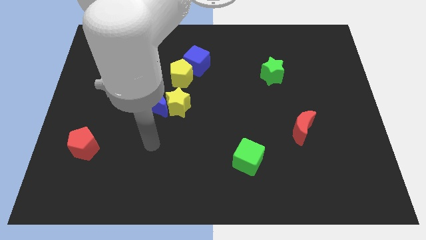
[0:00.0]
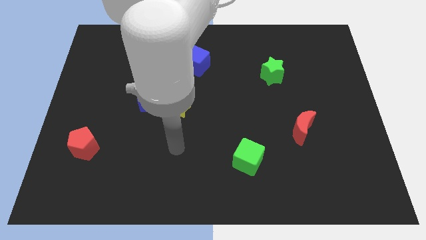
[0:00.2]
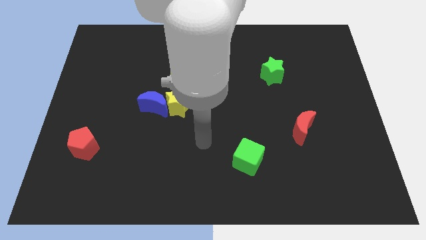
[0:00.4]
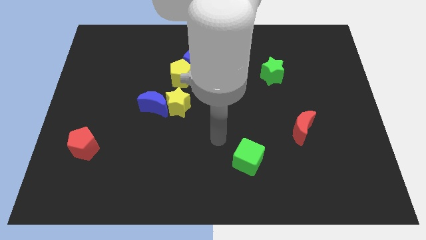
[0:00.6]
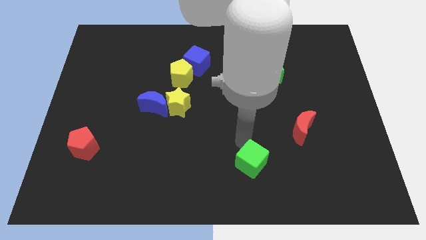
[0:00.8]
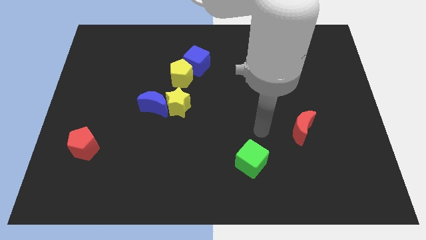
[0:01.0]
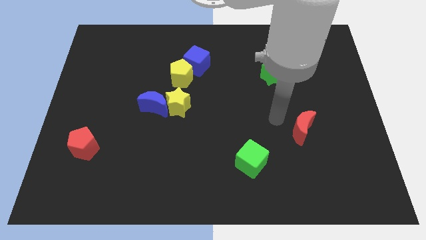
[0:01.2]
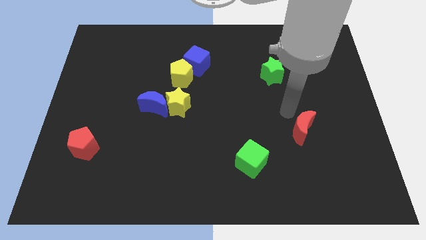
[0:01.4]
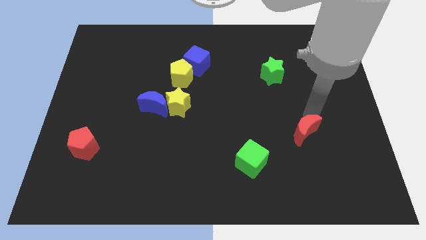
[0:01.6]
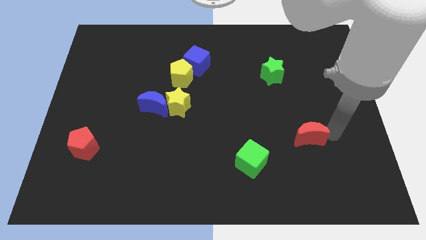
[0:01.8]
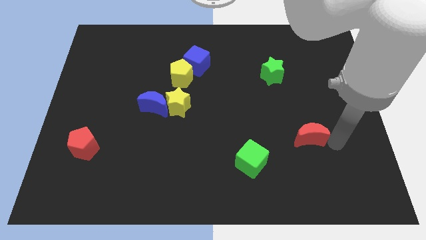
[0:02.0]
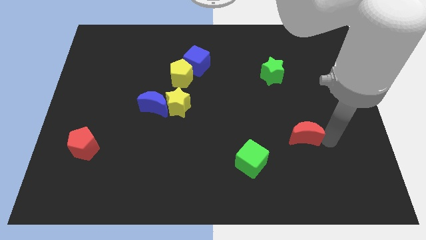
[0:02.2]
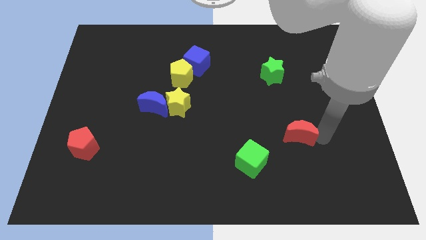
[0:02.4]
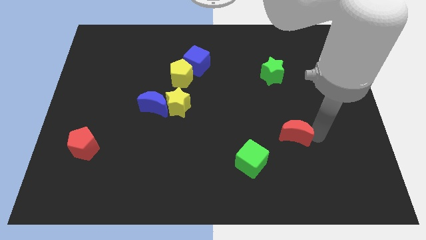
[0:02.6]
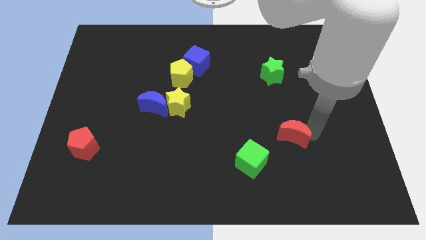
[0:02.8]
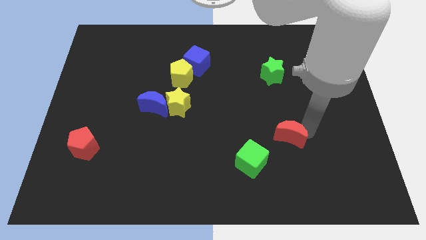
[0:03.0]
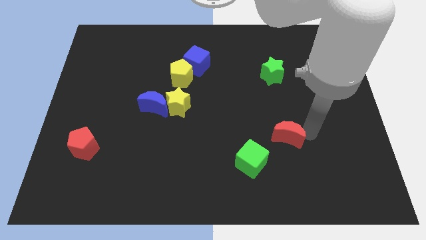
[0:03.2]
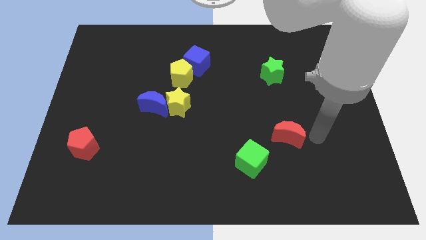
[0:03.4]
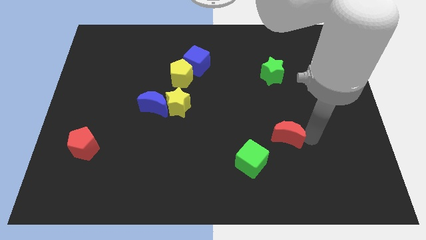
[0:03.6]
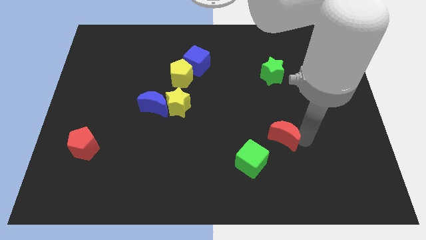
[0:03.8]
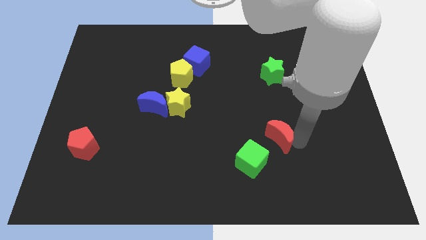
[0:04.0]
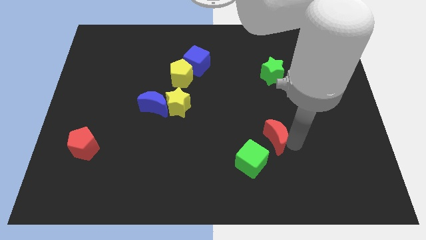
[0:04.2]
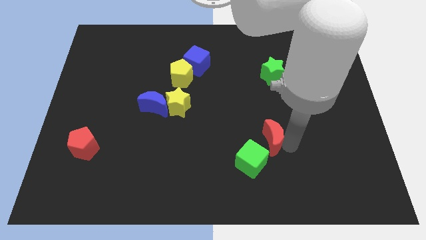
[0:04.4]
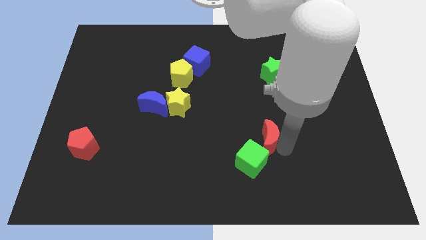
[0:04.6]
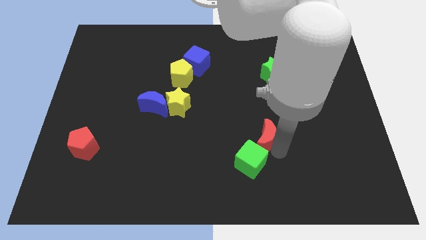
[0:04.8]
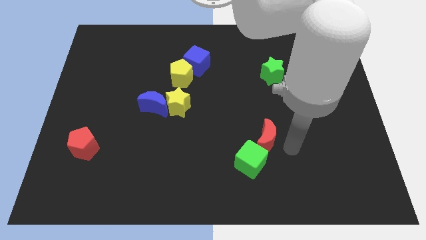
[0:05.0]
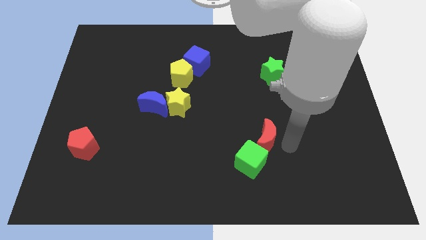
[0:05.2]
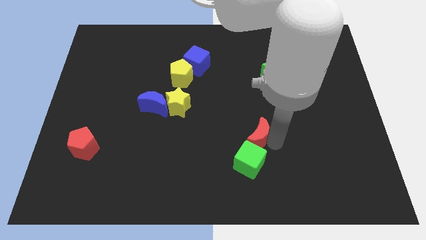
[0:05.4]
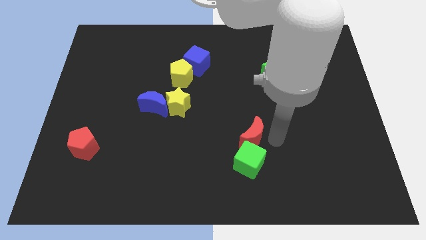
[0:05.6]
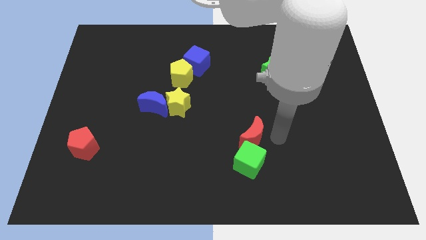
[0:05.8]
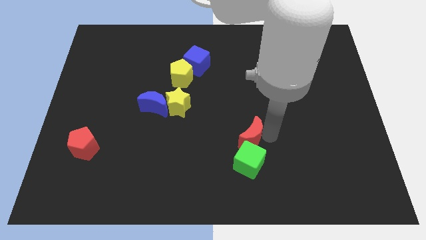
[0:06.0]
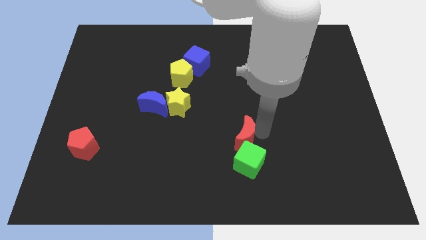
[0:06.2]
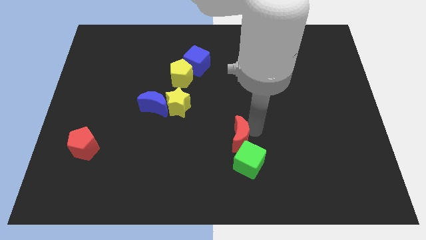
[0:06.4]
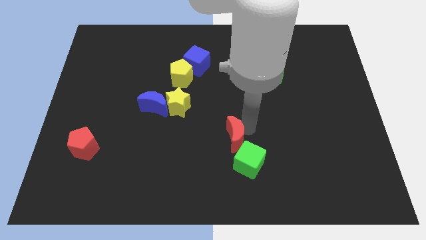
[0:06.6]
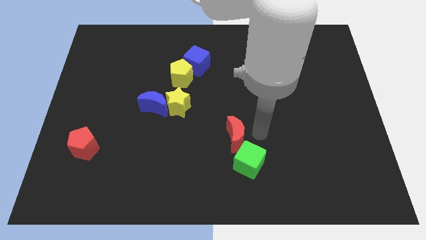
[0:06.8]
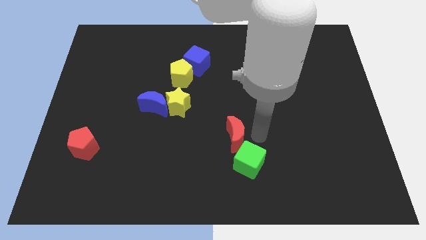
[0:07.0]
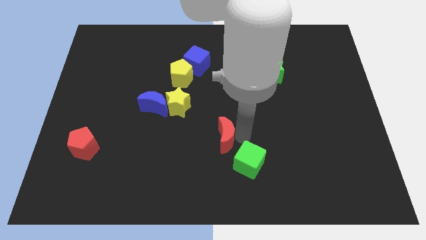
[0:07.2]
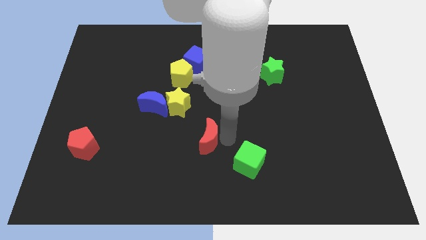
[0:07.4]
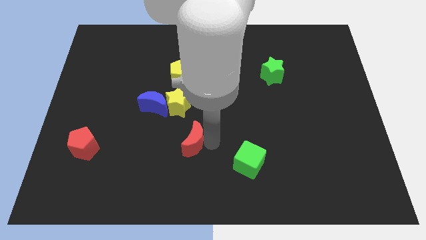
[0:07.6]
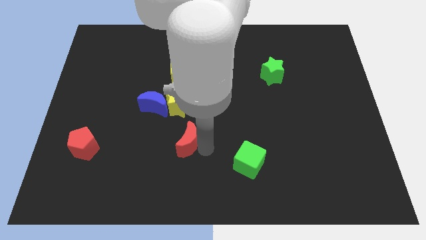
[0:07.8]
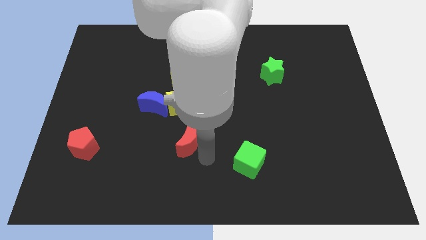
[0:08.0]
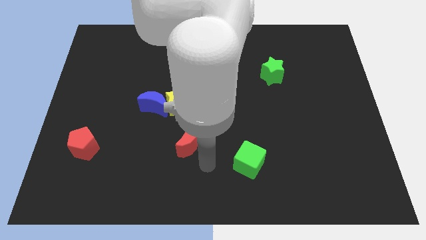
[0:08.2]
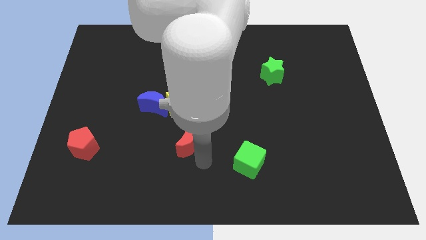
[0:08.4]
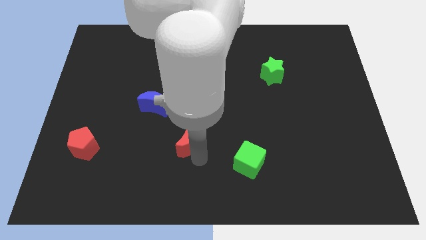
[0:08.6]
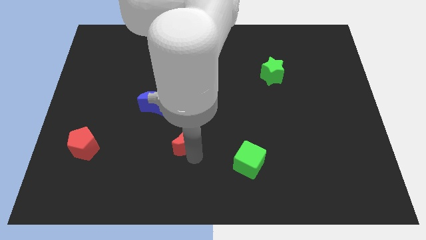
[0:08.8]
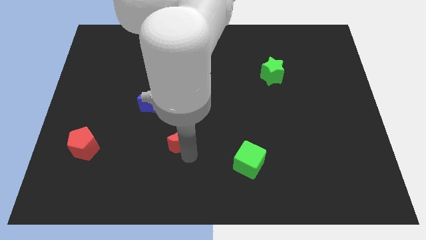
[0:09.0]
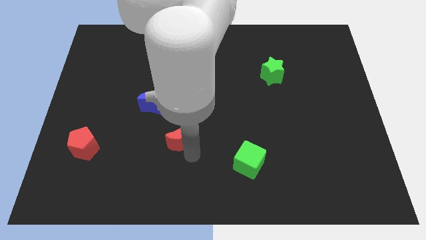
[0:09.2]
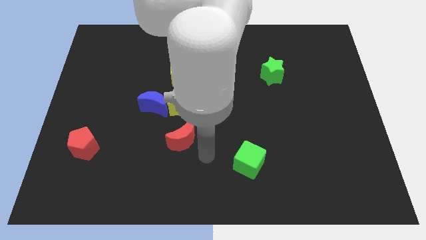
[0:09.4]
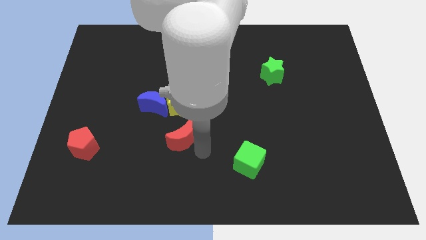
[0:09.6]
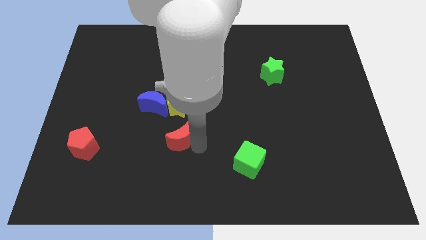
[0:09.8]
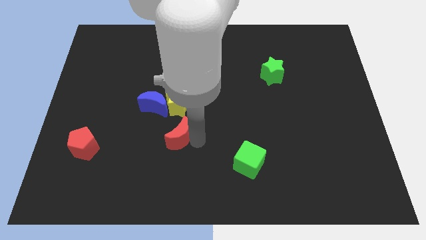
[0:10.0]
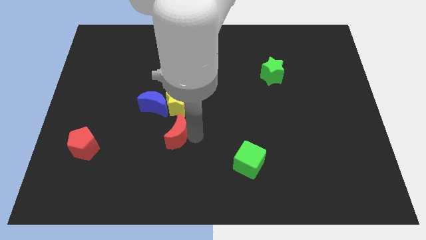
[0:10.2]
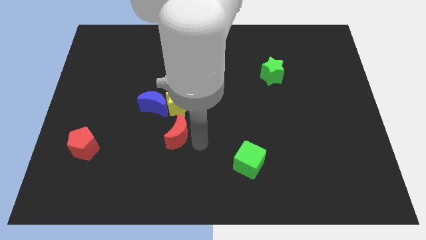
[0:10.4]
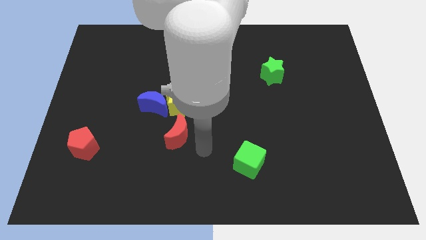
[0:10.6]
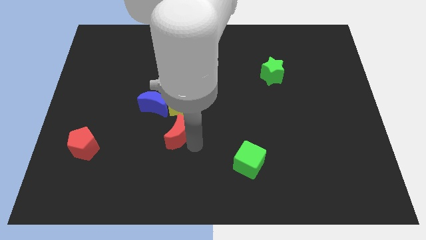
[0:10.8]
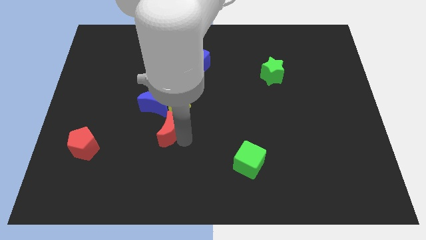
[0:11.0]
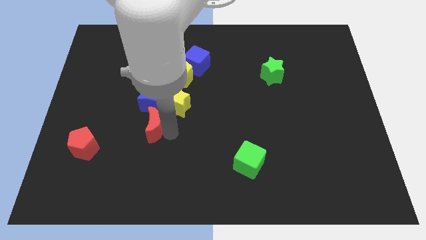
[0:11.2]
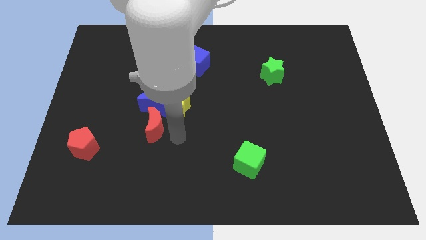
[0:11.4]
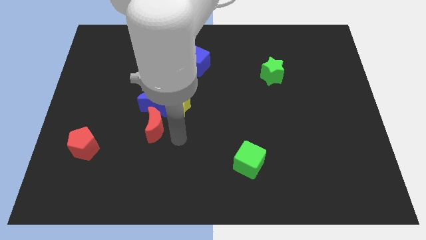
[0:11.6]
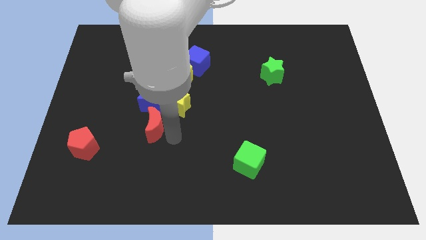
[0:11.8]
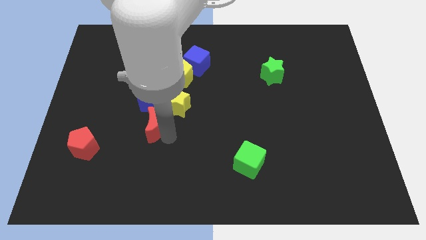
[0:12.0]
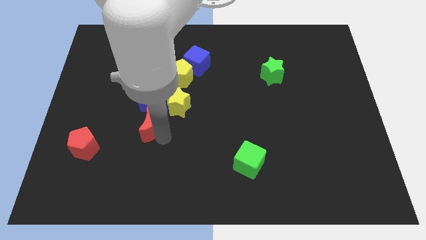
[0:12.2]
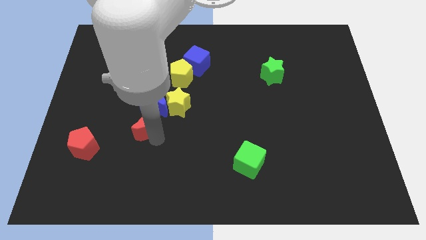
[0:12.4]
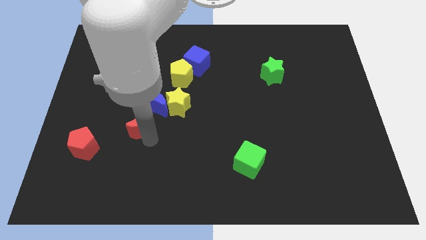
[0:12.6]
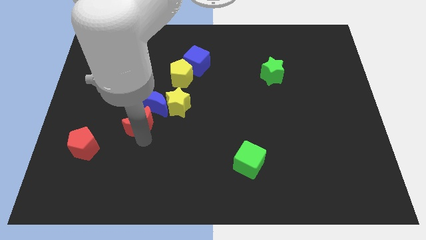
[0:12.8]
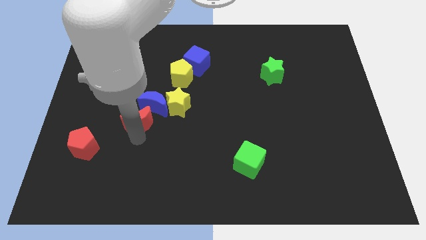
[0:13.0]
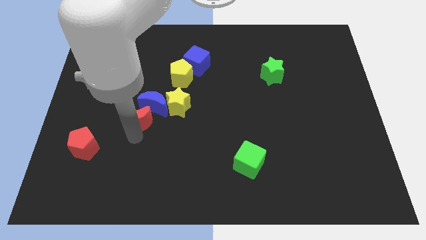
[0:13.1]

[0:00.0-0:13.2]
slide the red moon to the left of the yellow star

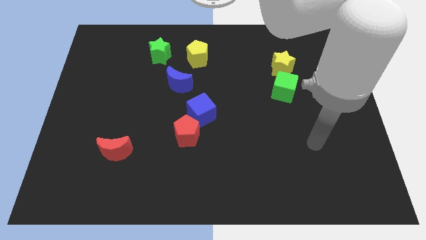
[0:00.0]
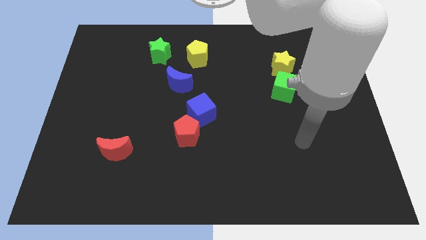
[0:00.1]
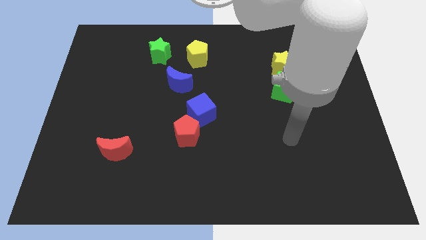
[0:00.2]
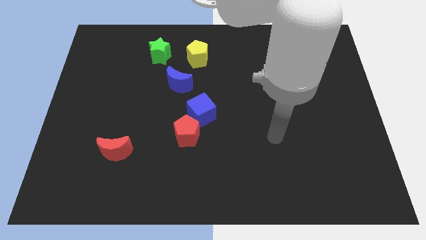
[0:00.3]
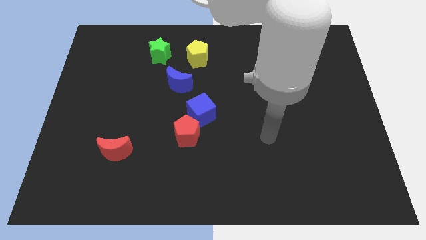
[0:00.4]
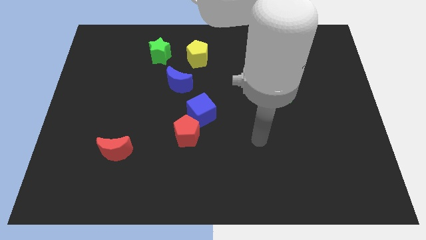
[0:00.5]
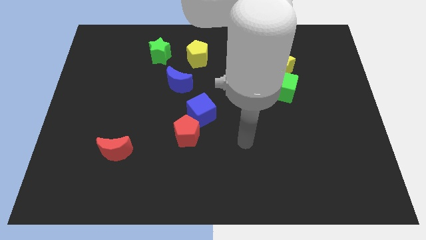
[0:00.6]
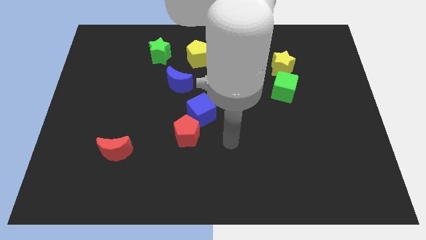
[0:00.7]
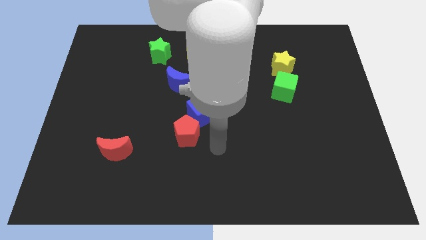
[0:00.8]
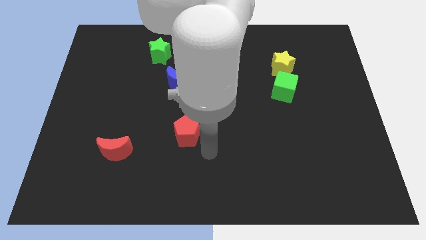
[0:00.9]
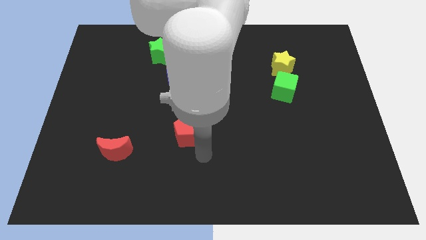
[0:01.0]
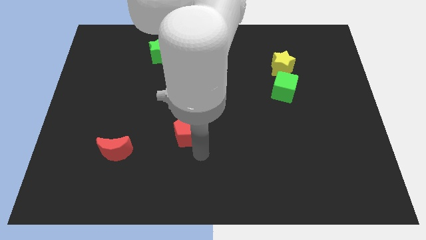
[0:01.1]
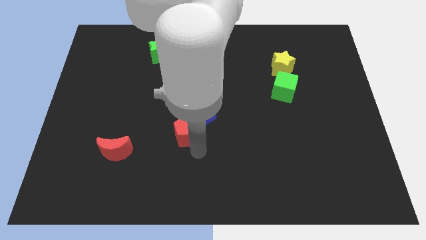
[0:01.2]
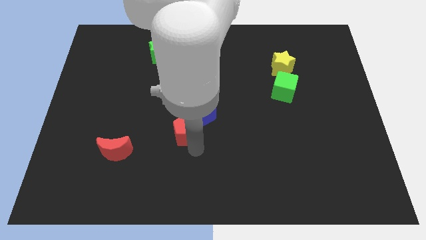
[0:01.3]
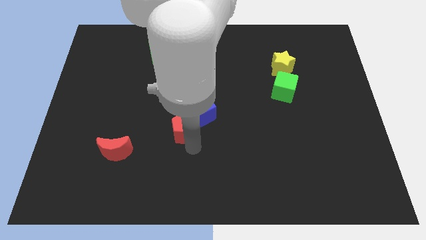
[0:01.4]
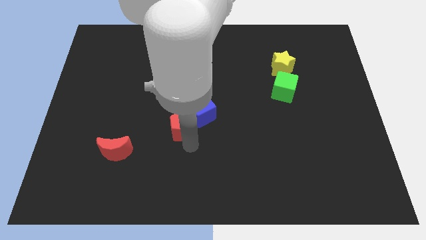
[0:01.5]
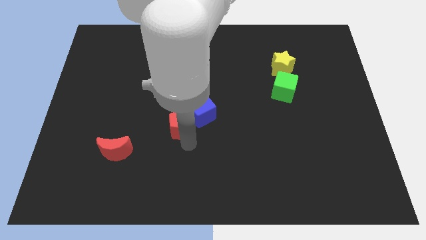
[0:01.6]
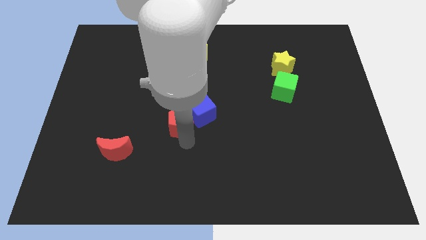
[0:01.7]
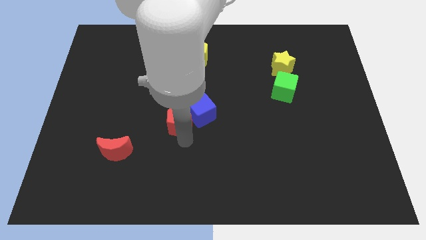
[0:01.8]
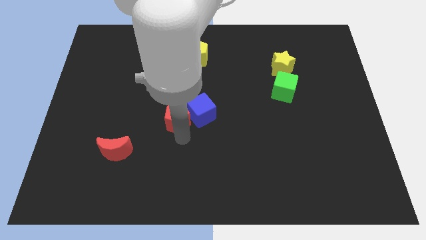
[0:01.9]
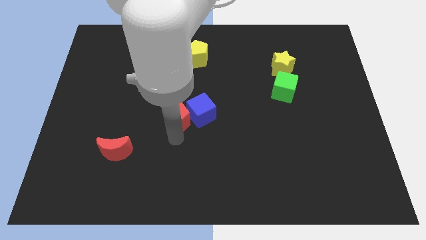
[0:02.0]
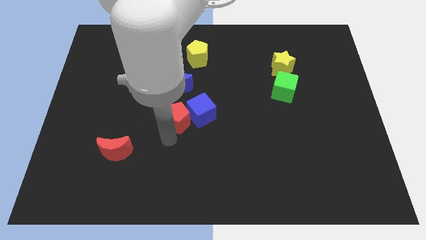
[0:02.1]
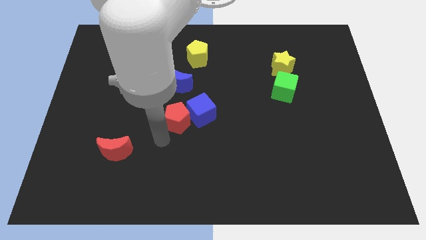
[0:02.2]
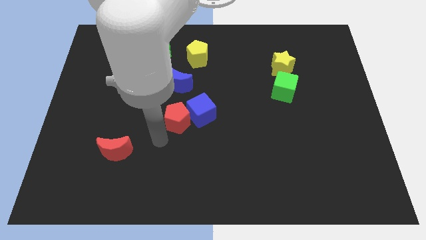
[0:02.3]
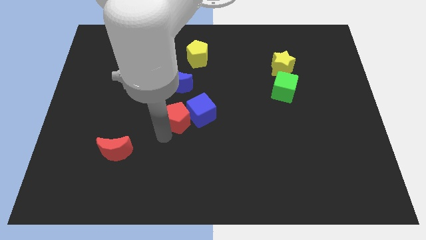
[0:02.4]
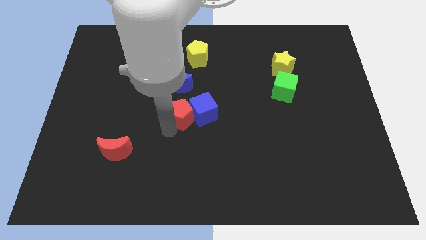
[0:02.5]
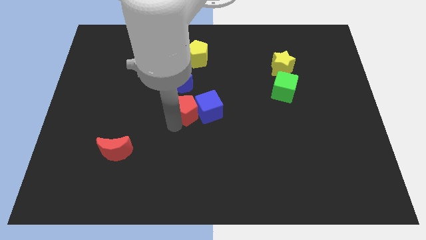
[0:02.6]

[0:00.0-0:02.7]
put the red pentagon diagonally down and to the right of the blue moon
